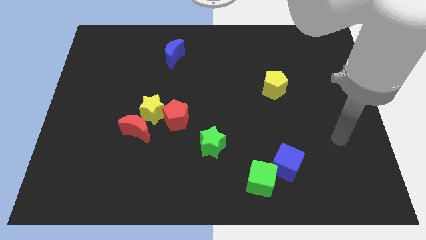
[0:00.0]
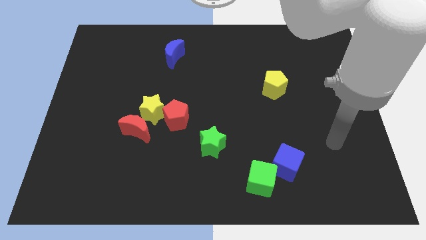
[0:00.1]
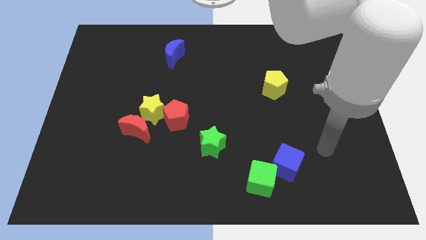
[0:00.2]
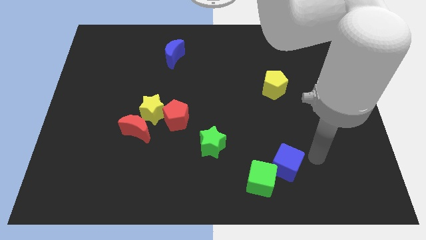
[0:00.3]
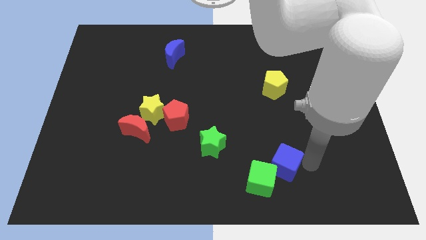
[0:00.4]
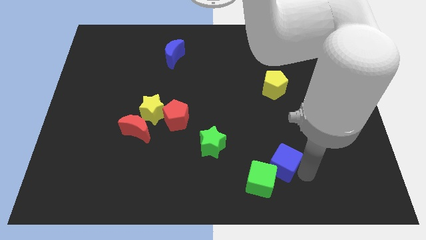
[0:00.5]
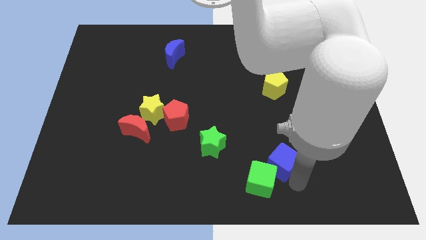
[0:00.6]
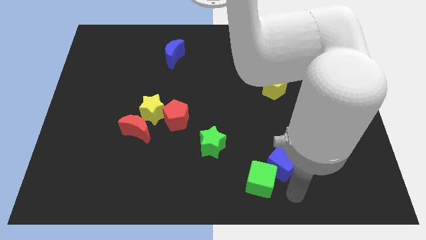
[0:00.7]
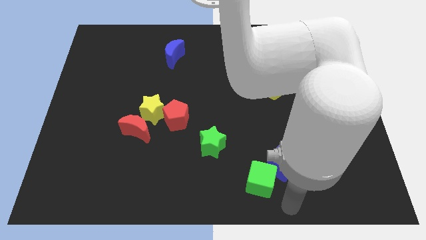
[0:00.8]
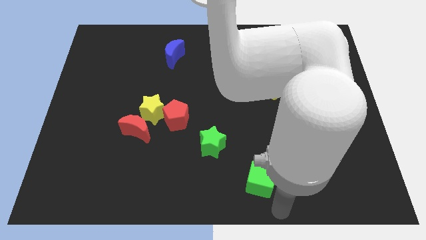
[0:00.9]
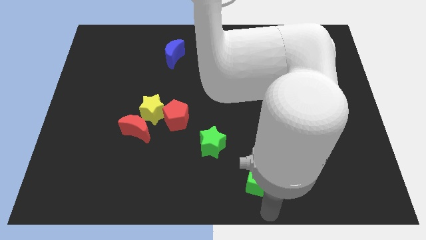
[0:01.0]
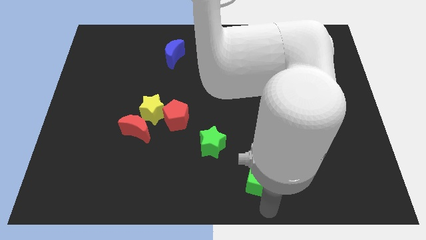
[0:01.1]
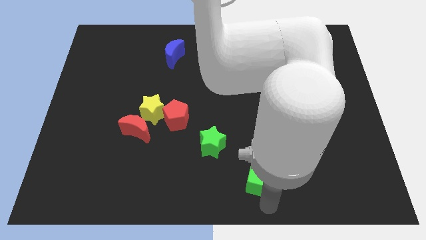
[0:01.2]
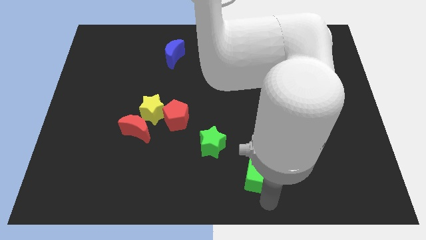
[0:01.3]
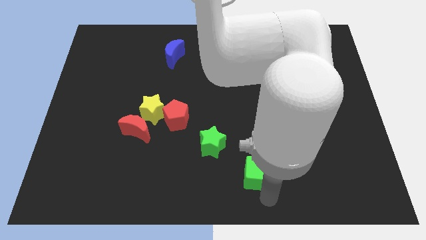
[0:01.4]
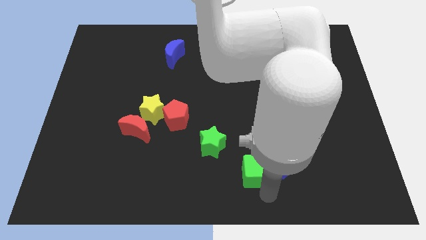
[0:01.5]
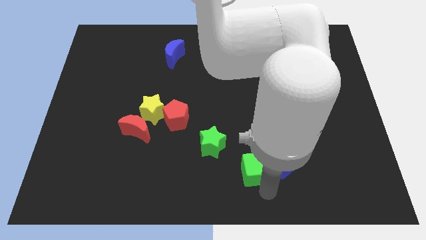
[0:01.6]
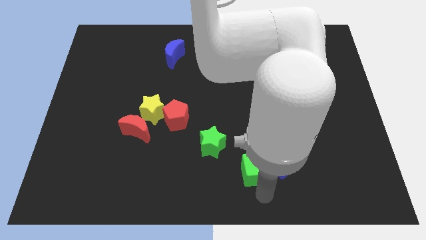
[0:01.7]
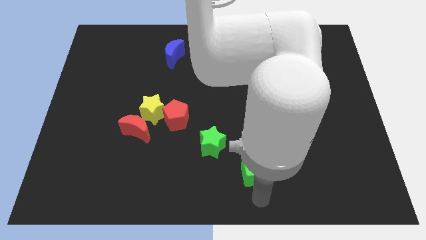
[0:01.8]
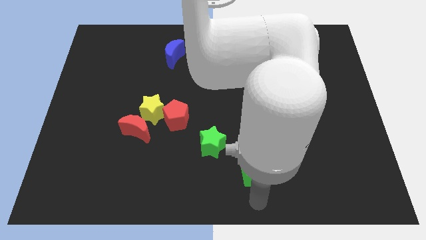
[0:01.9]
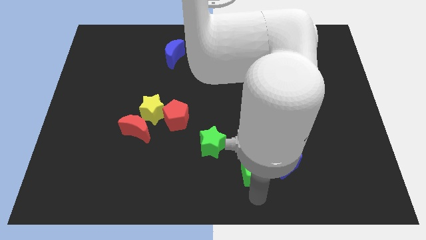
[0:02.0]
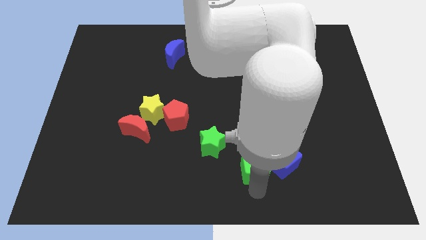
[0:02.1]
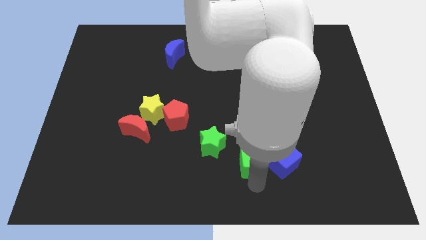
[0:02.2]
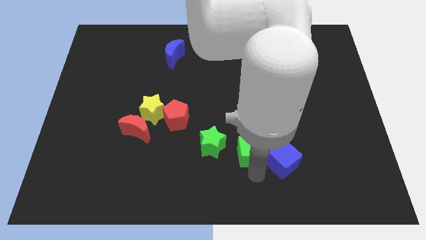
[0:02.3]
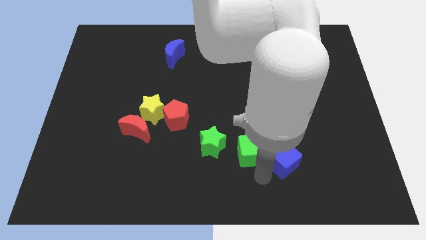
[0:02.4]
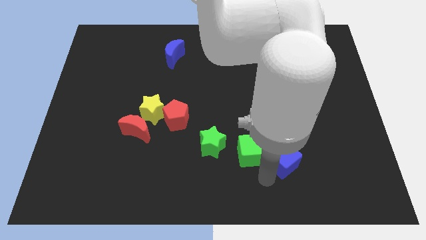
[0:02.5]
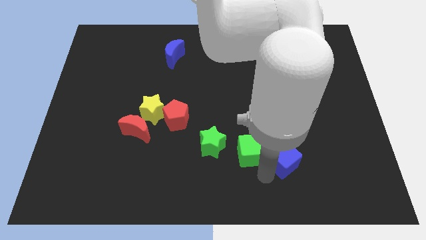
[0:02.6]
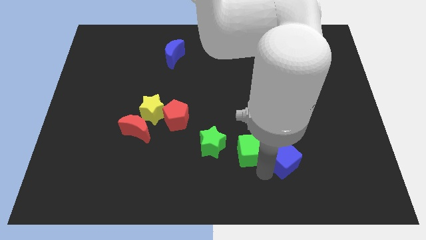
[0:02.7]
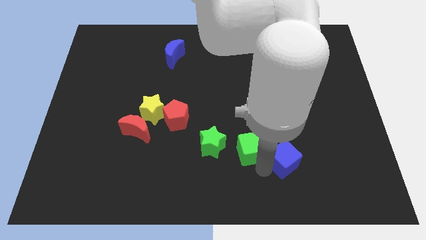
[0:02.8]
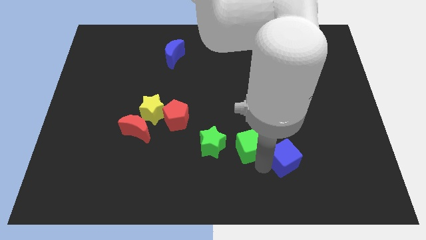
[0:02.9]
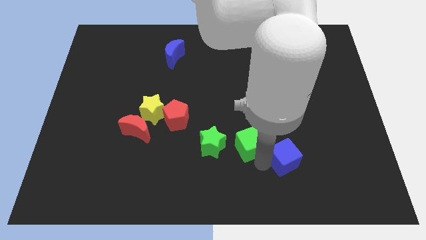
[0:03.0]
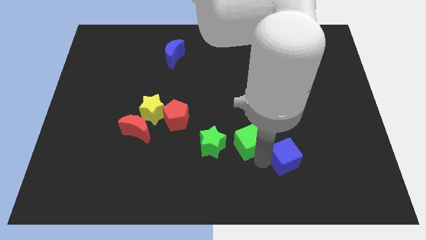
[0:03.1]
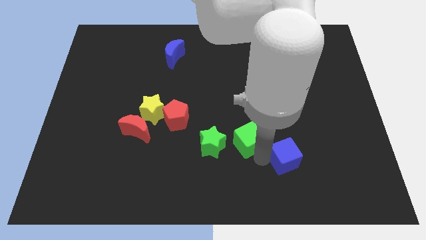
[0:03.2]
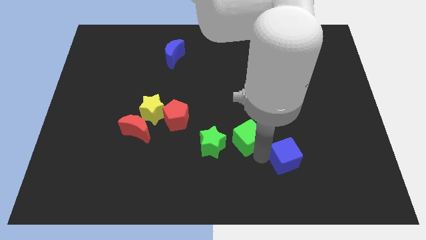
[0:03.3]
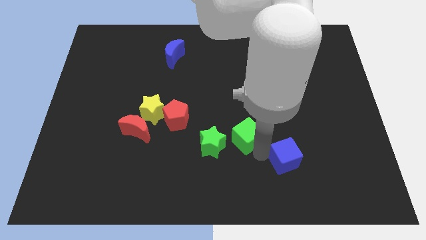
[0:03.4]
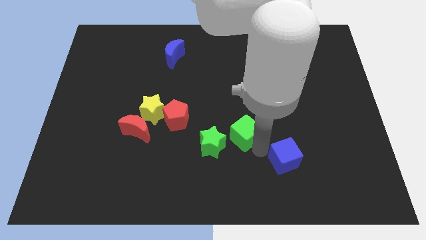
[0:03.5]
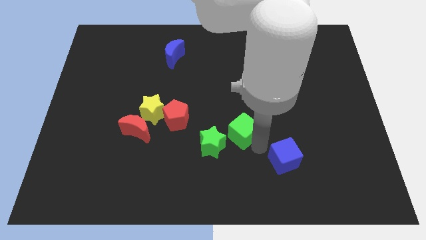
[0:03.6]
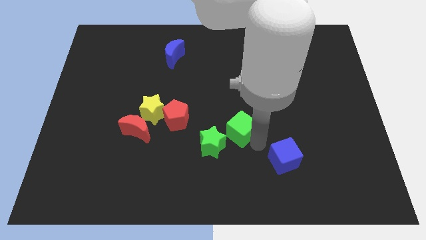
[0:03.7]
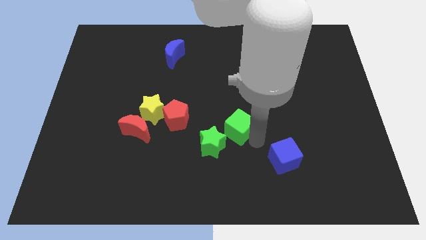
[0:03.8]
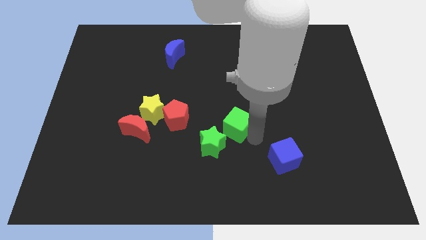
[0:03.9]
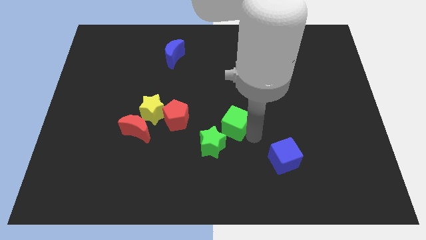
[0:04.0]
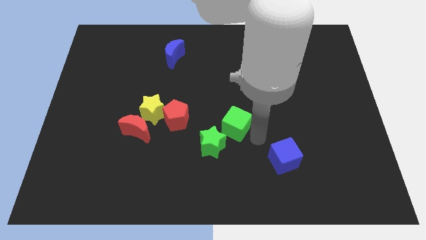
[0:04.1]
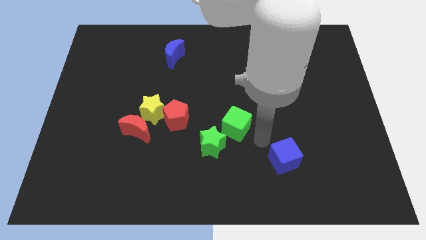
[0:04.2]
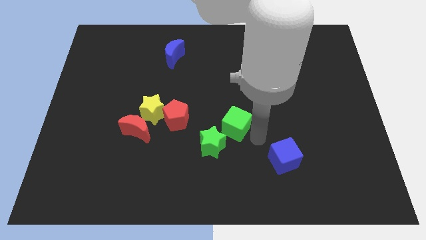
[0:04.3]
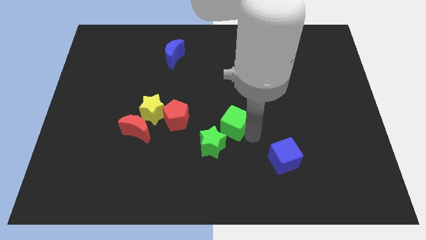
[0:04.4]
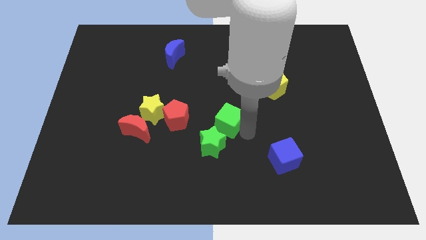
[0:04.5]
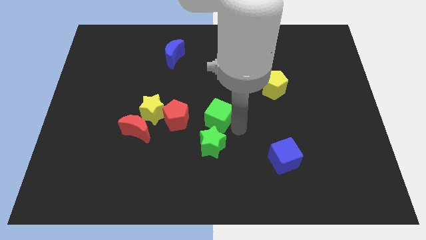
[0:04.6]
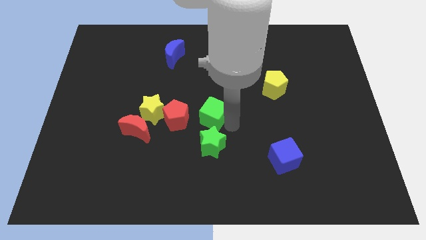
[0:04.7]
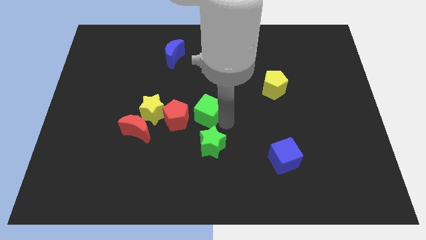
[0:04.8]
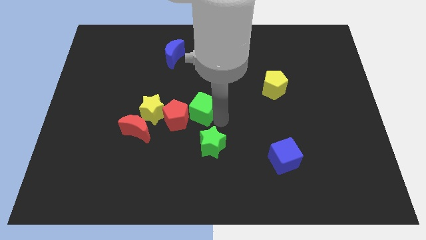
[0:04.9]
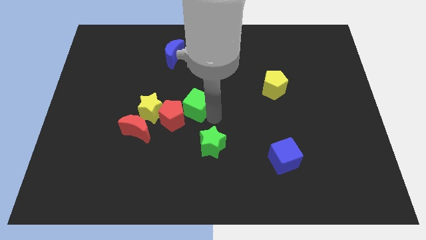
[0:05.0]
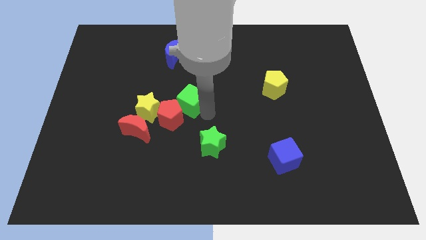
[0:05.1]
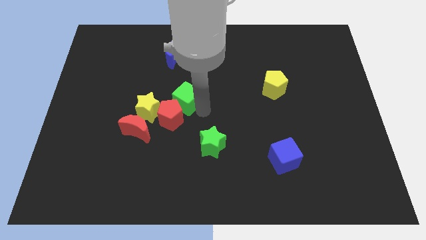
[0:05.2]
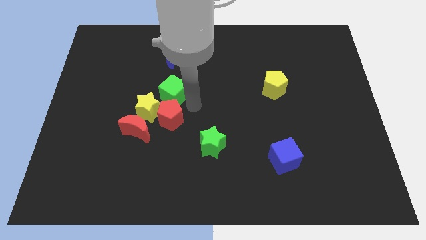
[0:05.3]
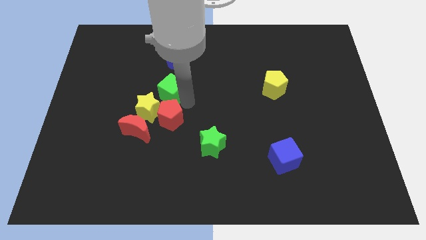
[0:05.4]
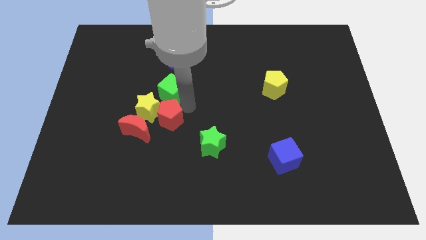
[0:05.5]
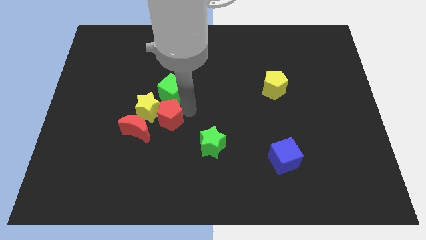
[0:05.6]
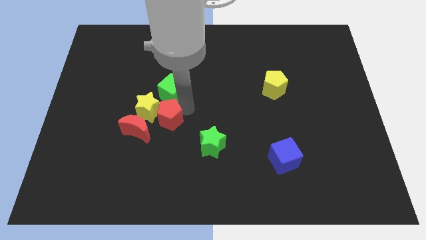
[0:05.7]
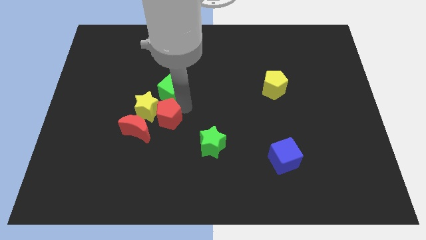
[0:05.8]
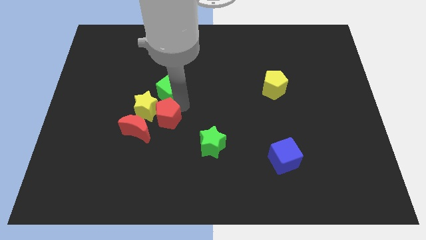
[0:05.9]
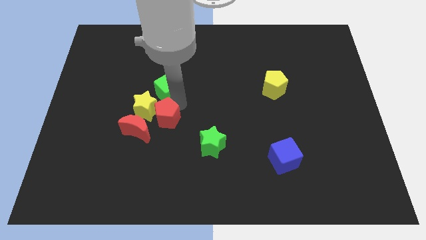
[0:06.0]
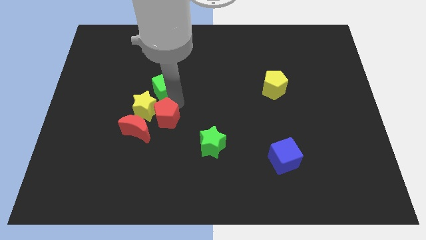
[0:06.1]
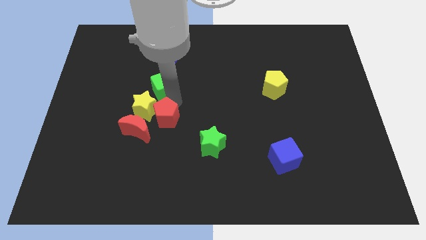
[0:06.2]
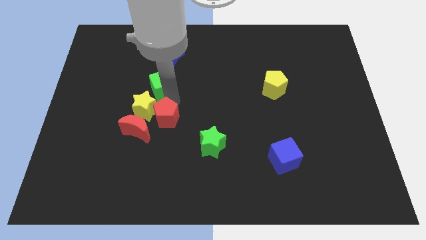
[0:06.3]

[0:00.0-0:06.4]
move the green cube above the red moon

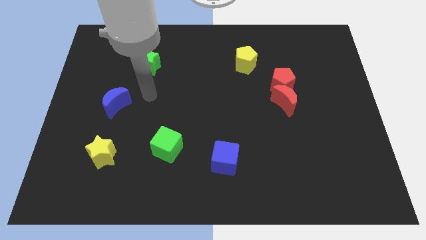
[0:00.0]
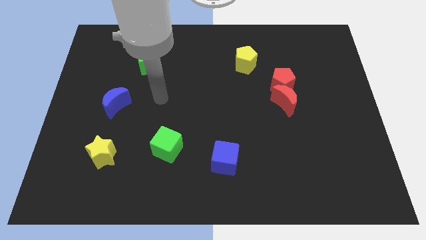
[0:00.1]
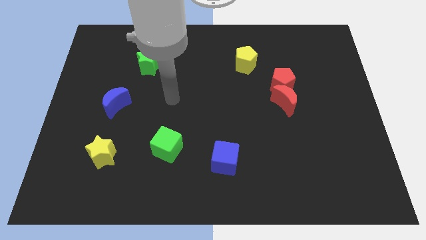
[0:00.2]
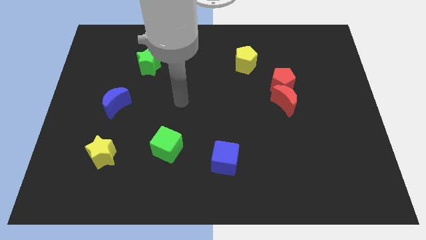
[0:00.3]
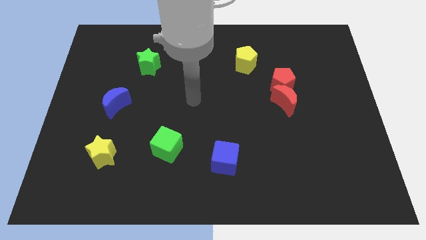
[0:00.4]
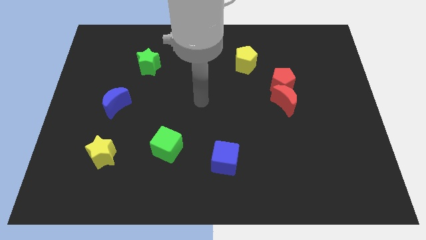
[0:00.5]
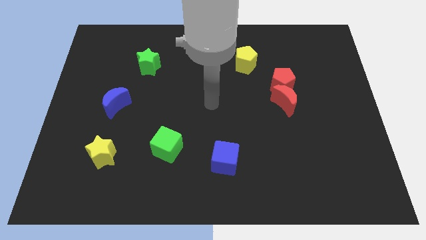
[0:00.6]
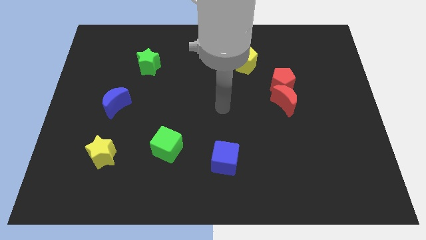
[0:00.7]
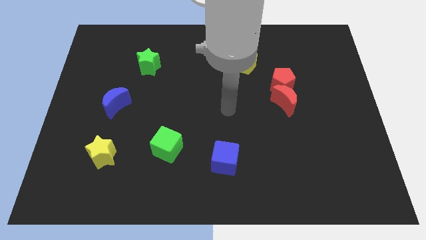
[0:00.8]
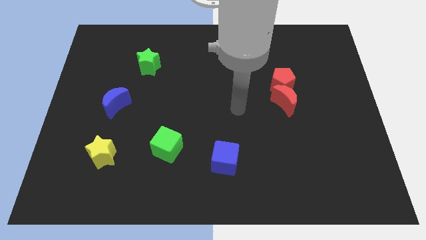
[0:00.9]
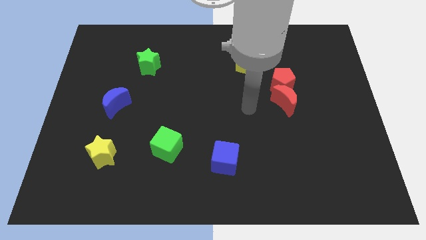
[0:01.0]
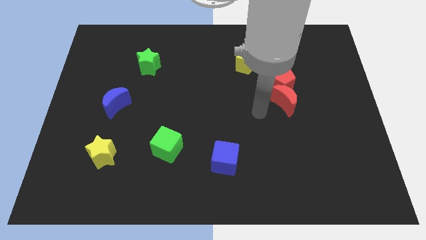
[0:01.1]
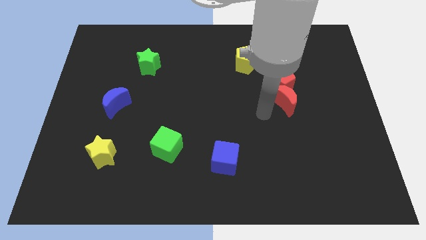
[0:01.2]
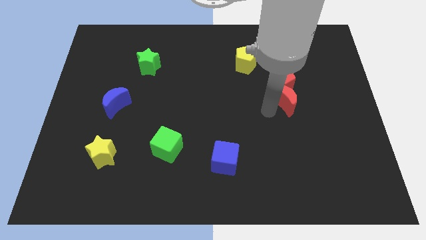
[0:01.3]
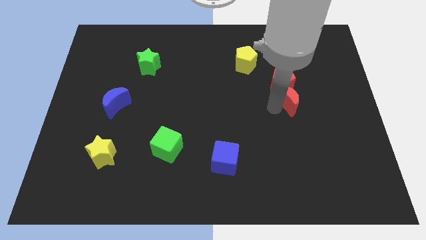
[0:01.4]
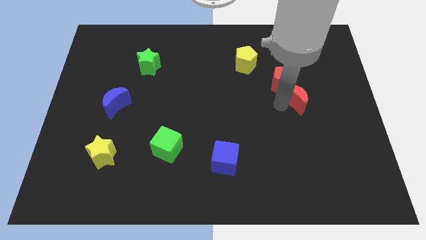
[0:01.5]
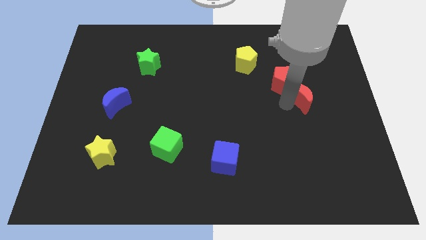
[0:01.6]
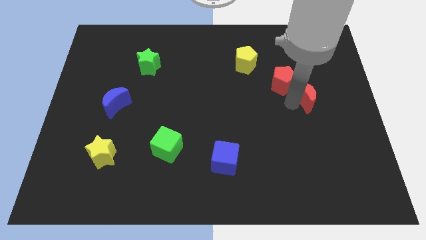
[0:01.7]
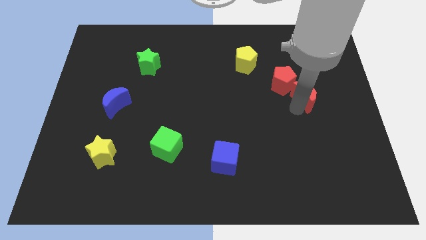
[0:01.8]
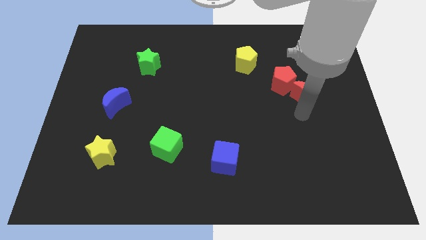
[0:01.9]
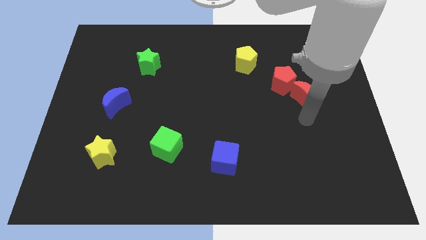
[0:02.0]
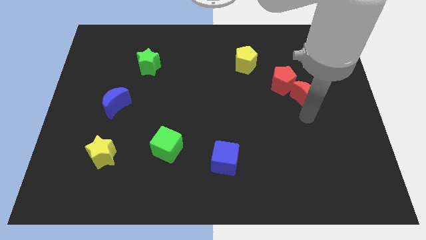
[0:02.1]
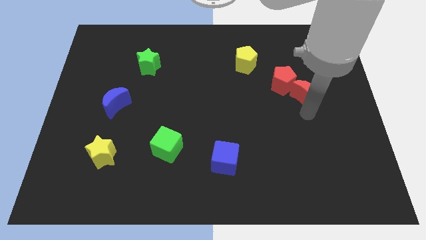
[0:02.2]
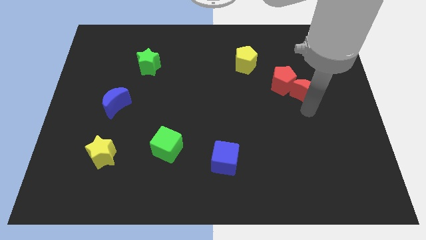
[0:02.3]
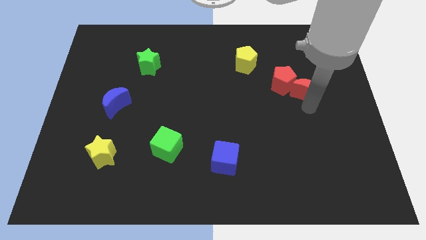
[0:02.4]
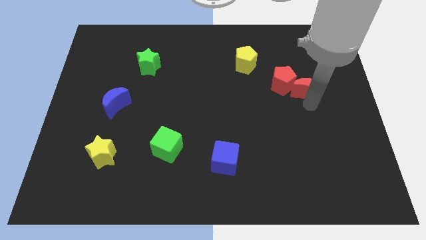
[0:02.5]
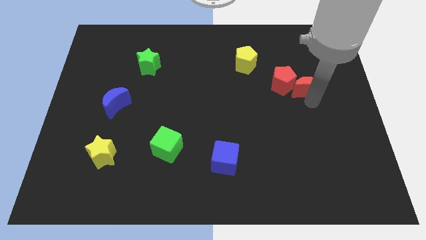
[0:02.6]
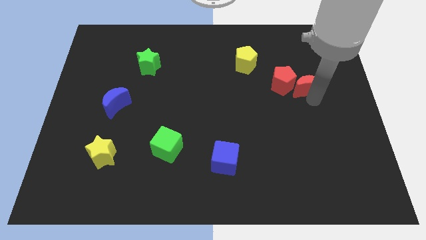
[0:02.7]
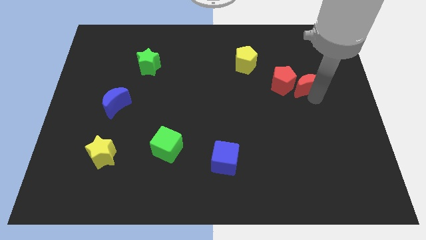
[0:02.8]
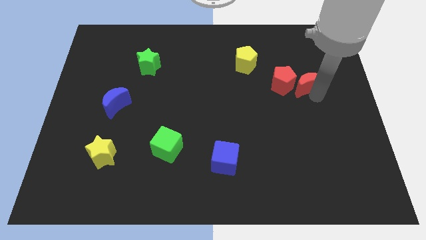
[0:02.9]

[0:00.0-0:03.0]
slide the red moon to the top right side of the red pentagon
